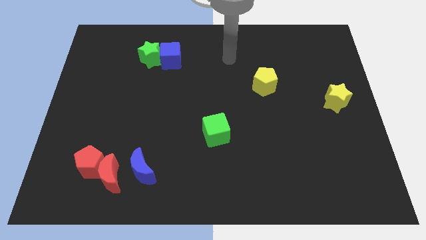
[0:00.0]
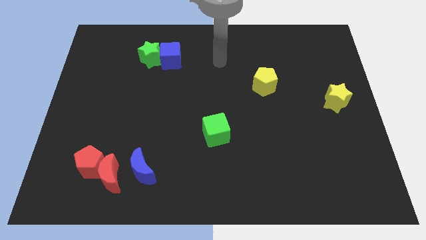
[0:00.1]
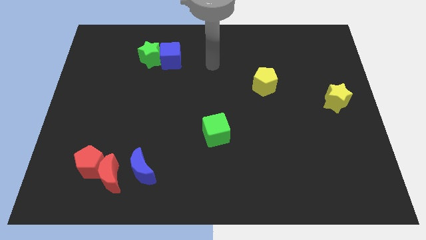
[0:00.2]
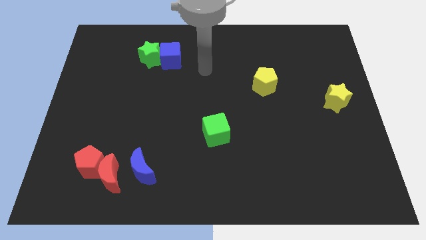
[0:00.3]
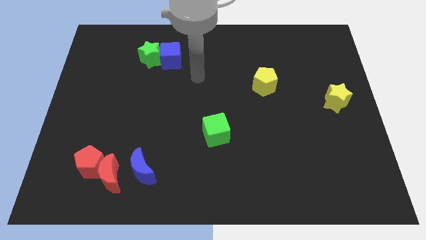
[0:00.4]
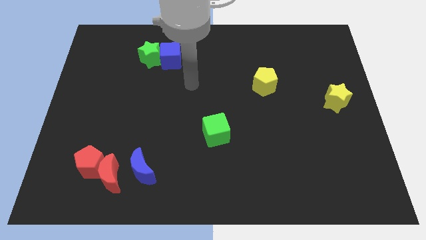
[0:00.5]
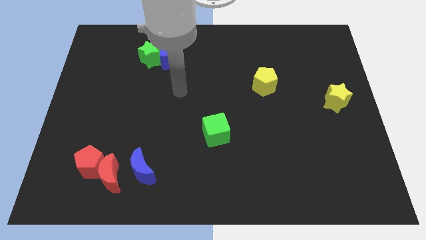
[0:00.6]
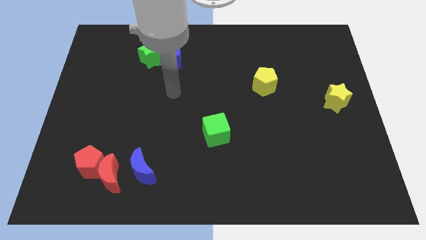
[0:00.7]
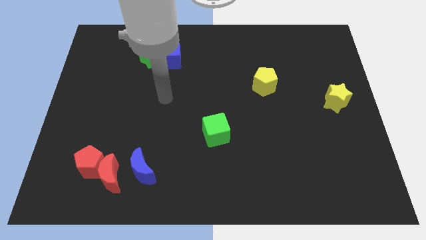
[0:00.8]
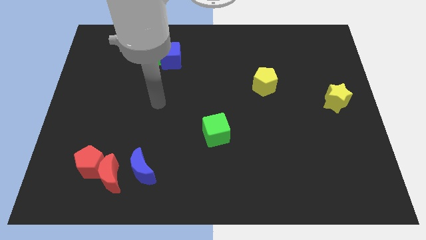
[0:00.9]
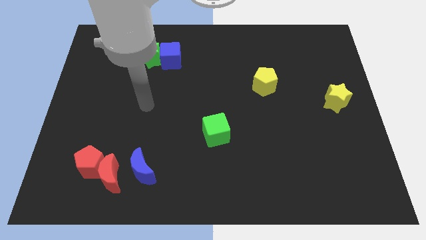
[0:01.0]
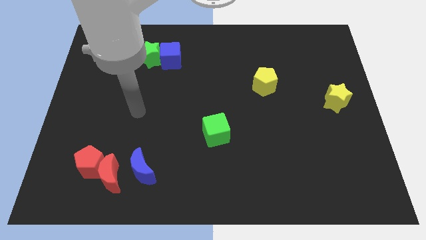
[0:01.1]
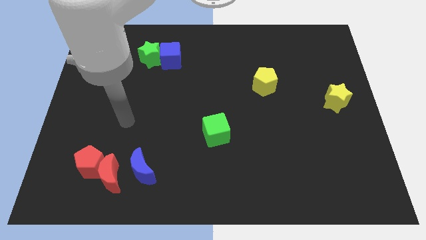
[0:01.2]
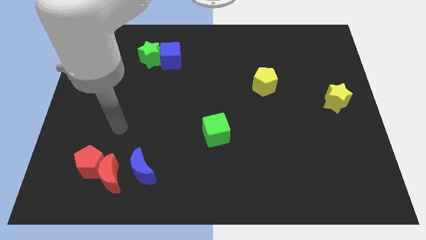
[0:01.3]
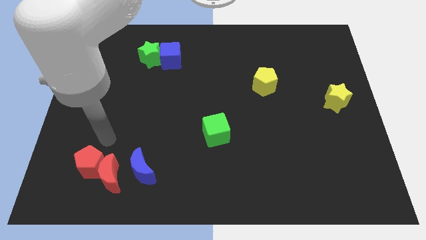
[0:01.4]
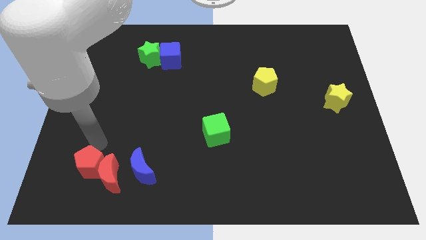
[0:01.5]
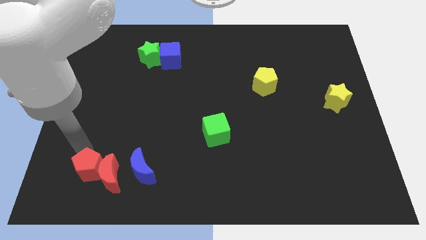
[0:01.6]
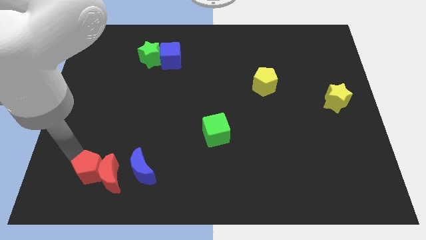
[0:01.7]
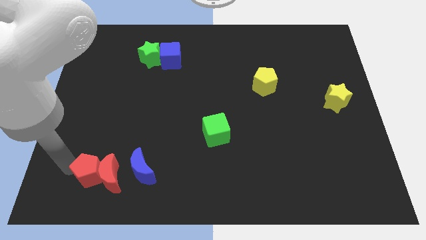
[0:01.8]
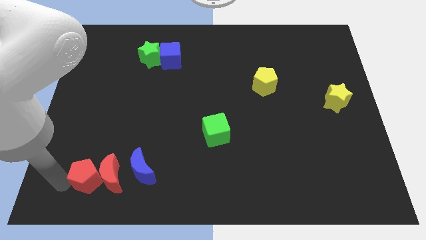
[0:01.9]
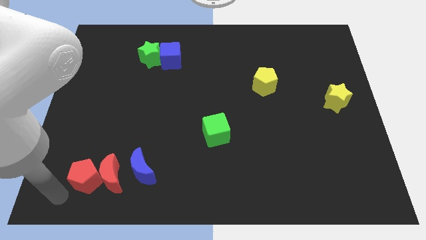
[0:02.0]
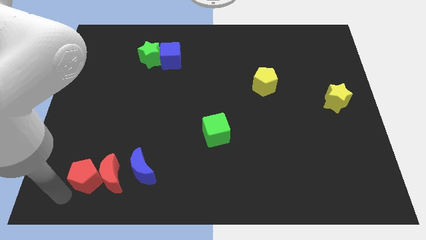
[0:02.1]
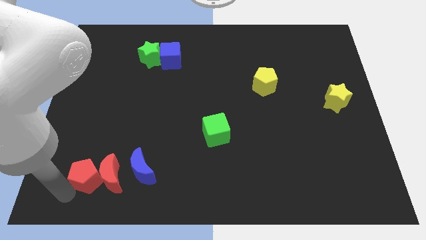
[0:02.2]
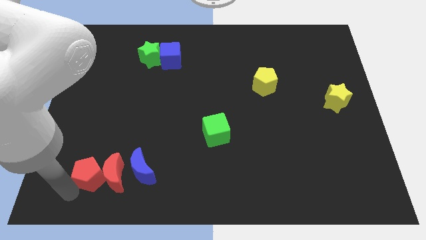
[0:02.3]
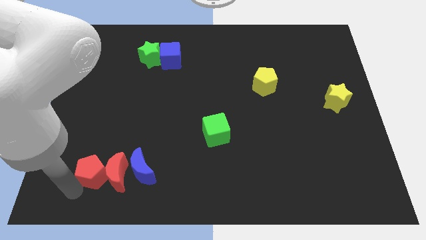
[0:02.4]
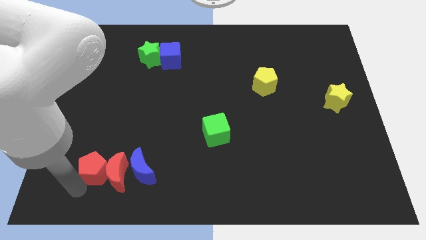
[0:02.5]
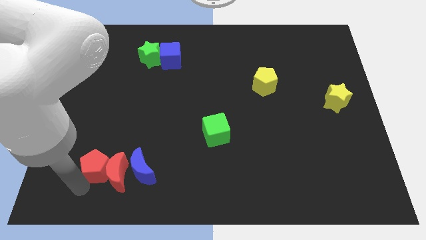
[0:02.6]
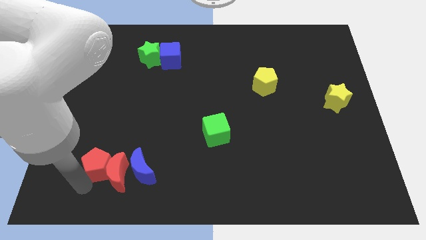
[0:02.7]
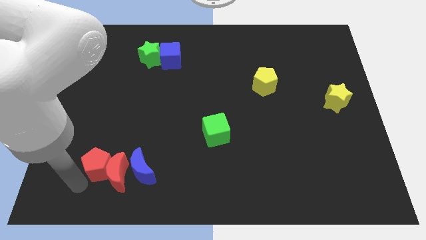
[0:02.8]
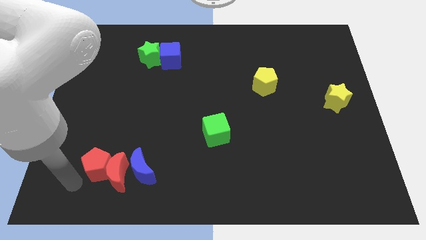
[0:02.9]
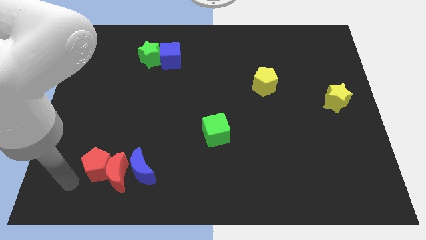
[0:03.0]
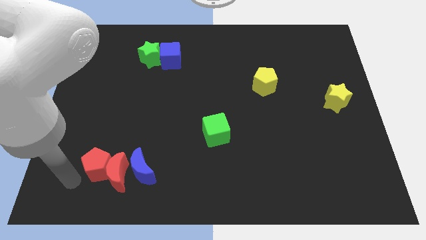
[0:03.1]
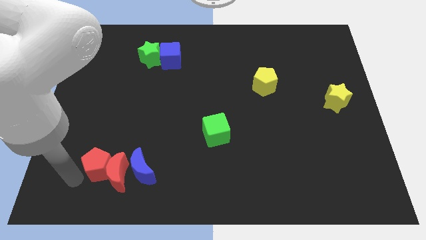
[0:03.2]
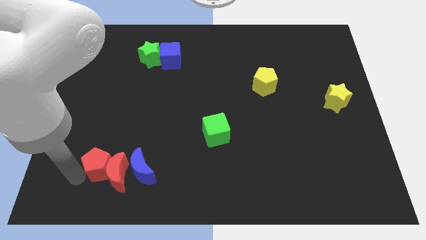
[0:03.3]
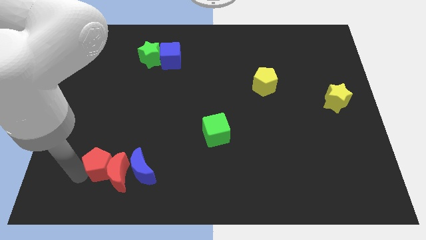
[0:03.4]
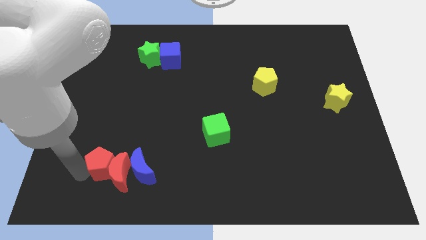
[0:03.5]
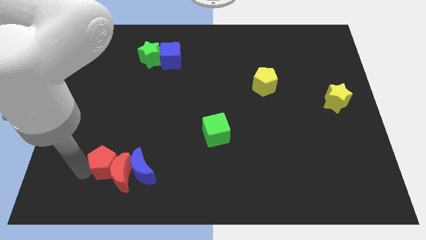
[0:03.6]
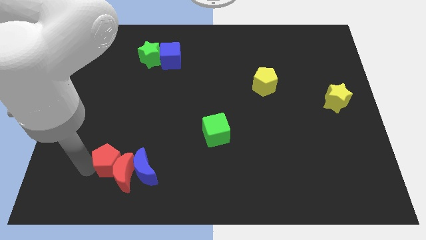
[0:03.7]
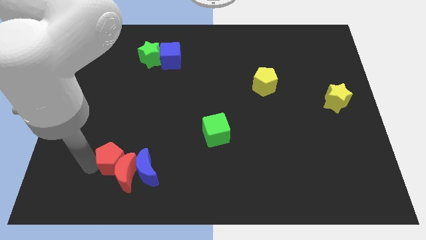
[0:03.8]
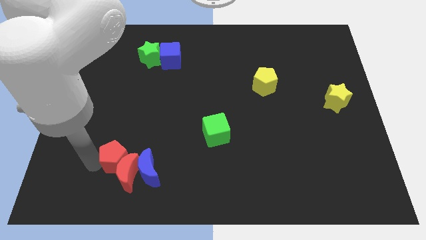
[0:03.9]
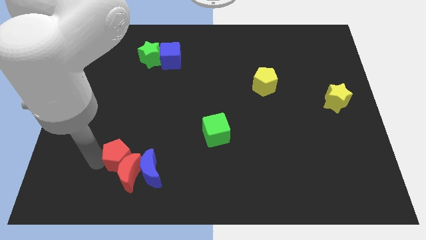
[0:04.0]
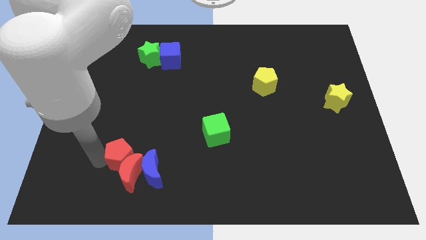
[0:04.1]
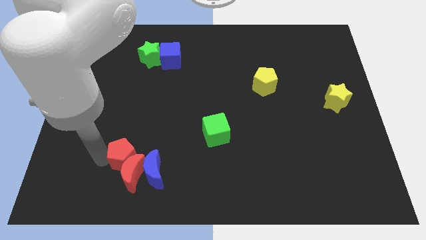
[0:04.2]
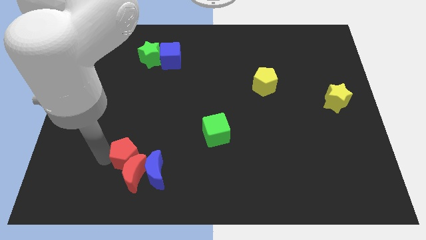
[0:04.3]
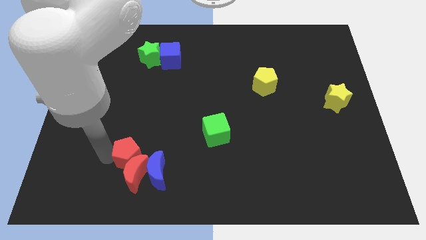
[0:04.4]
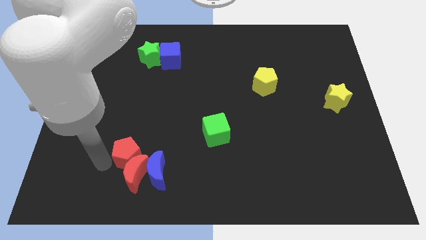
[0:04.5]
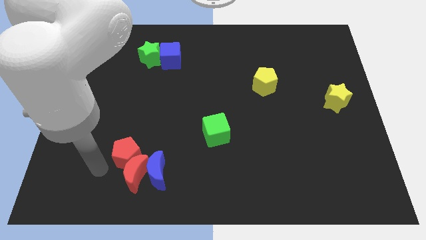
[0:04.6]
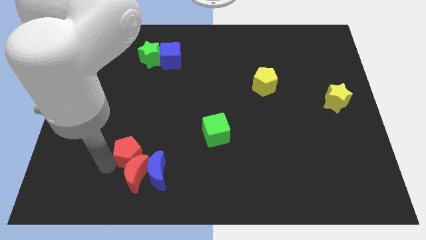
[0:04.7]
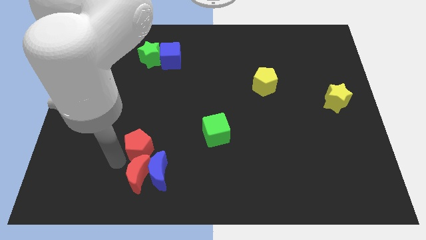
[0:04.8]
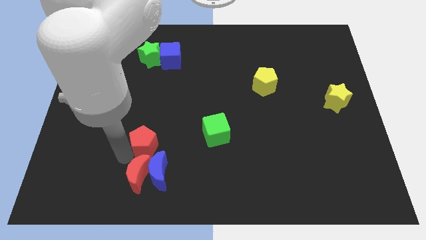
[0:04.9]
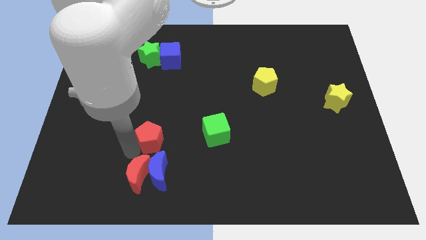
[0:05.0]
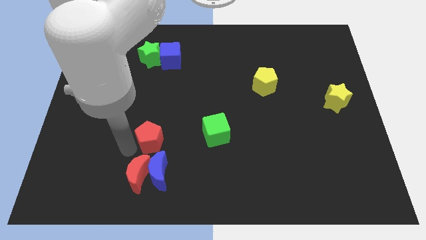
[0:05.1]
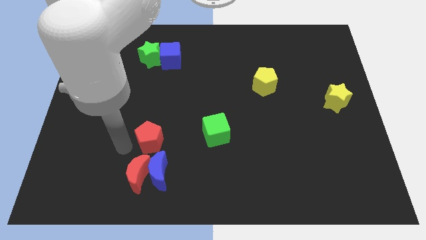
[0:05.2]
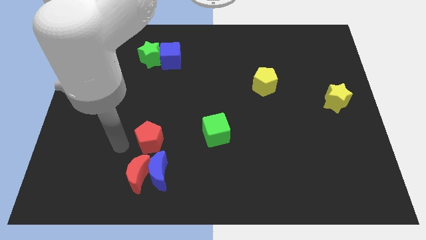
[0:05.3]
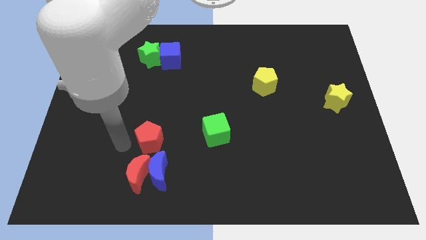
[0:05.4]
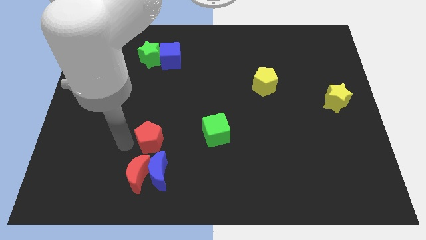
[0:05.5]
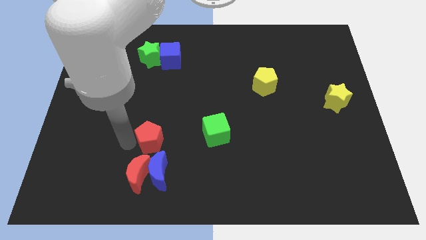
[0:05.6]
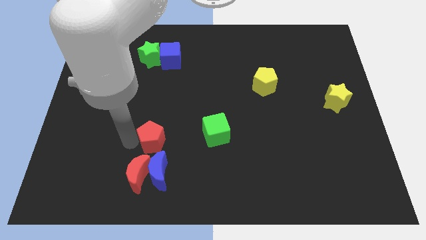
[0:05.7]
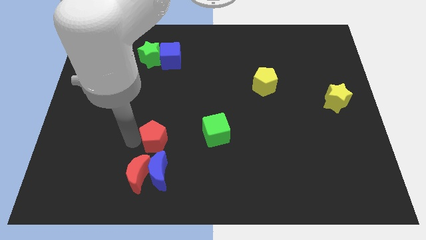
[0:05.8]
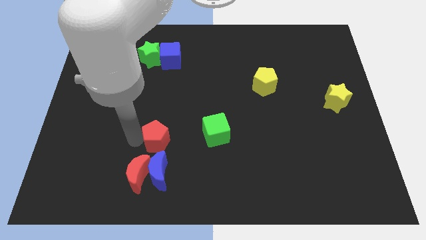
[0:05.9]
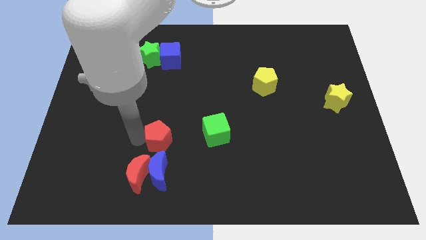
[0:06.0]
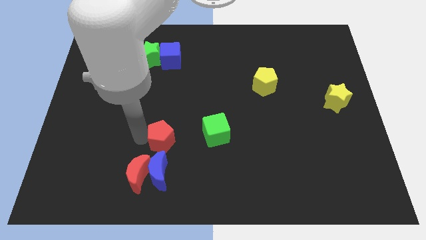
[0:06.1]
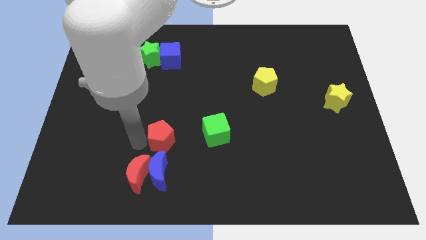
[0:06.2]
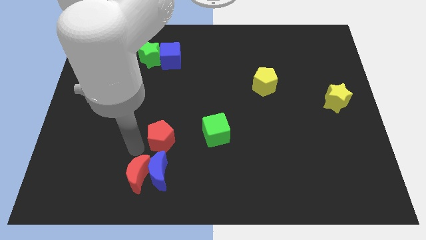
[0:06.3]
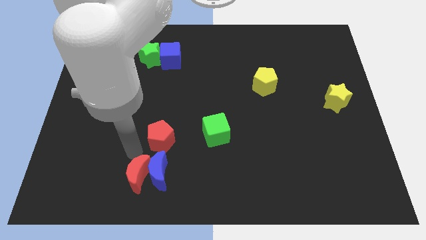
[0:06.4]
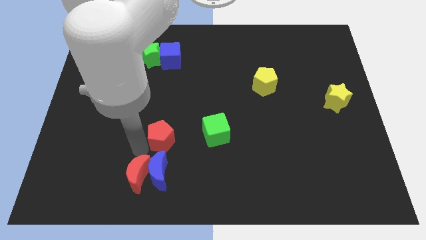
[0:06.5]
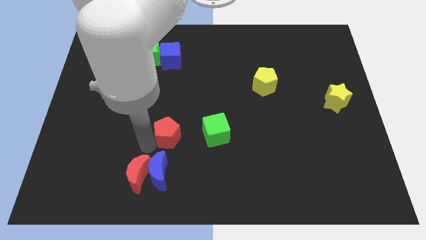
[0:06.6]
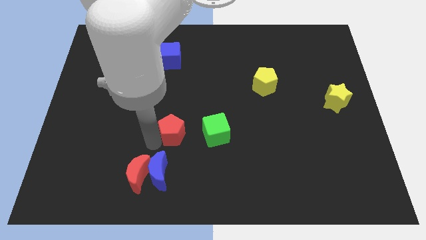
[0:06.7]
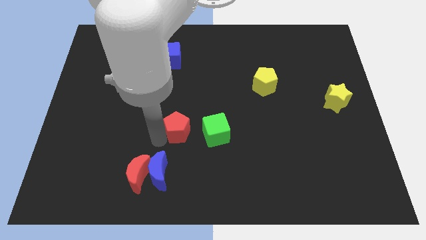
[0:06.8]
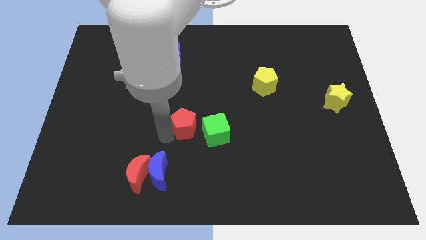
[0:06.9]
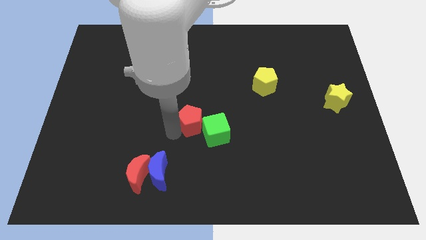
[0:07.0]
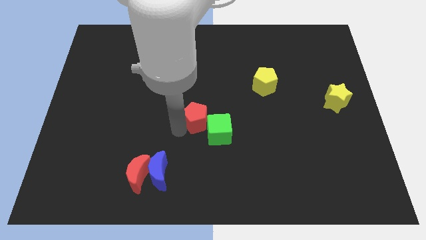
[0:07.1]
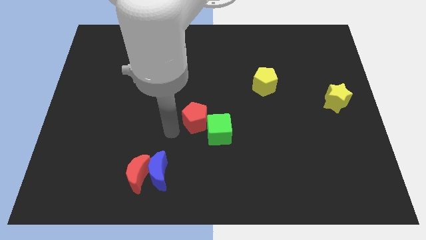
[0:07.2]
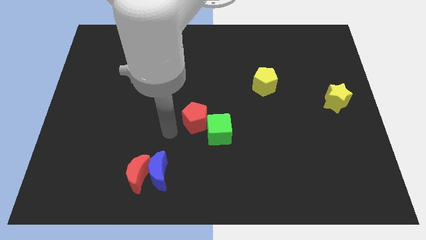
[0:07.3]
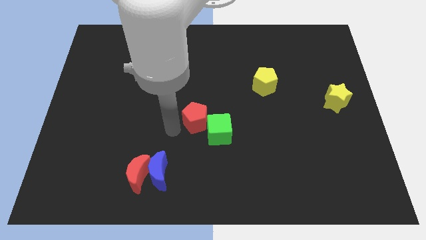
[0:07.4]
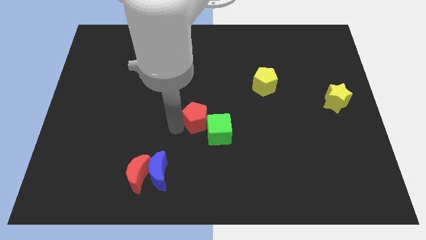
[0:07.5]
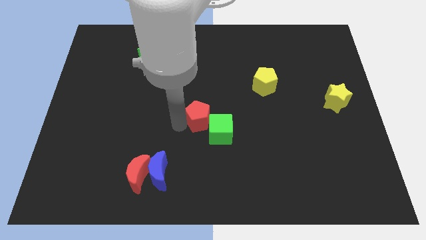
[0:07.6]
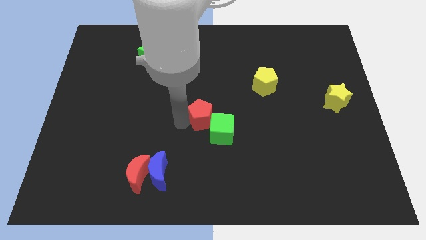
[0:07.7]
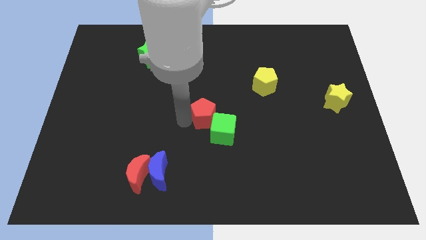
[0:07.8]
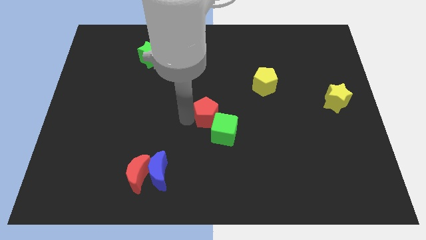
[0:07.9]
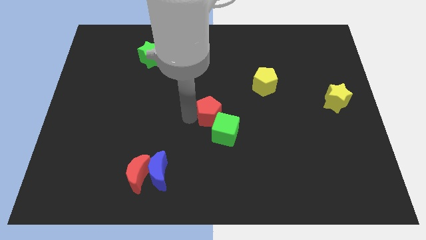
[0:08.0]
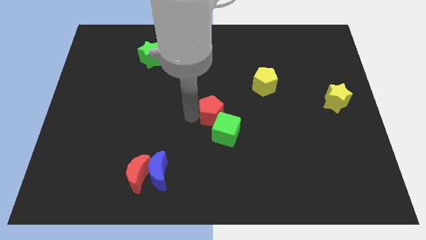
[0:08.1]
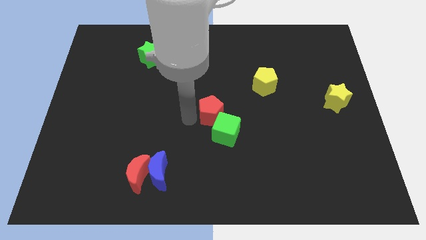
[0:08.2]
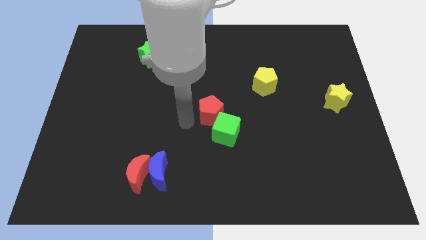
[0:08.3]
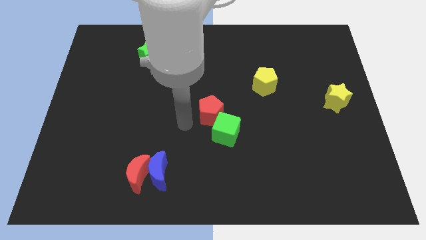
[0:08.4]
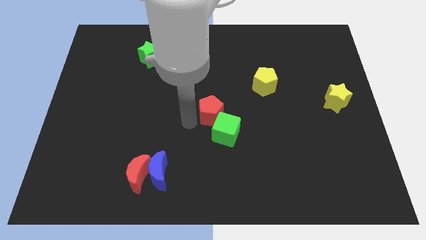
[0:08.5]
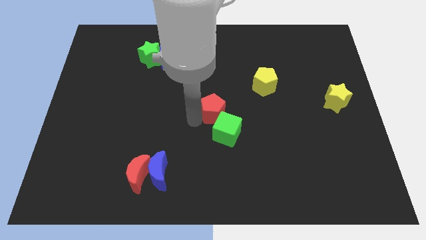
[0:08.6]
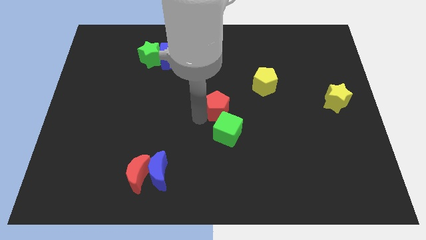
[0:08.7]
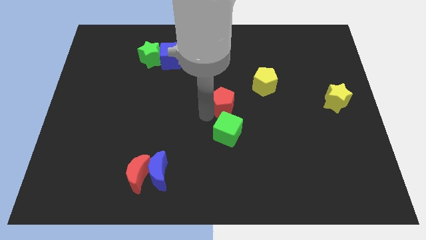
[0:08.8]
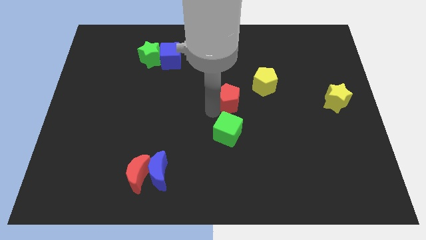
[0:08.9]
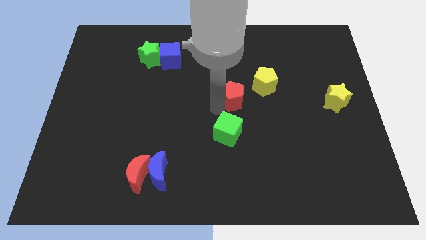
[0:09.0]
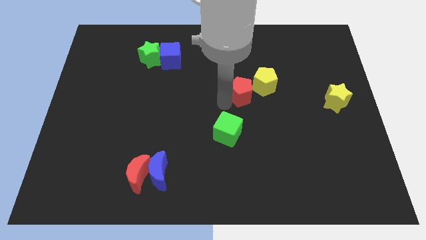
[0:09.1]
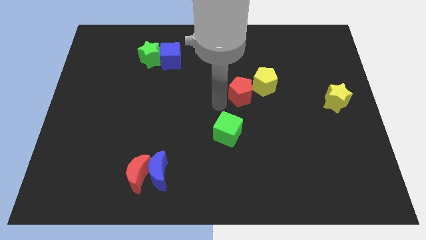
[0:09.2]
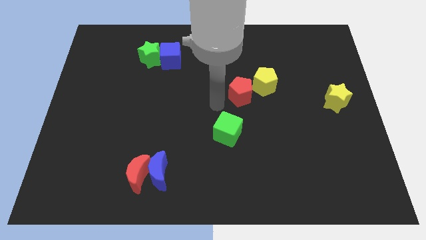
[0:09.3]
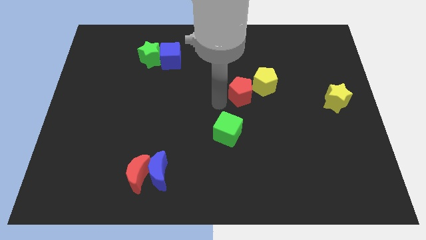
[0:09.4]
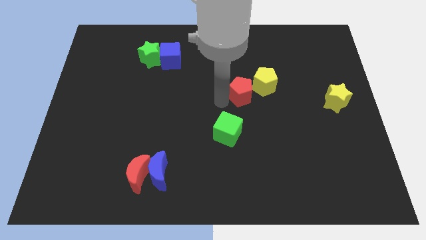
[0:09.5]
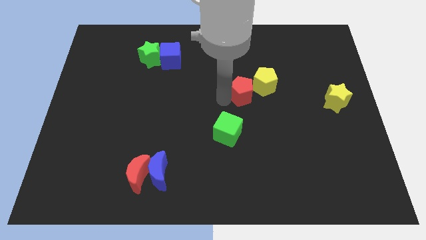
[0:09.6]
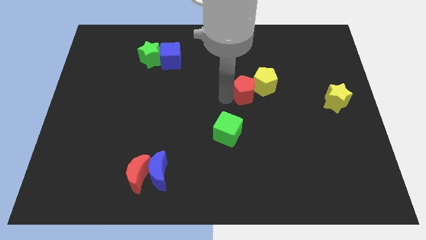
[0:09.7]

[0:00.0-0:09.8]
push the red pentagon next to the yellow pentagon
